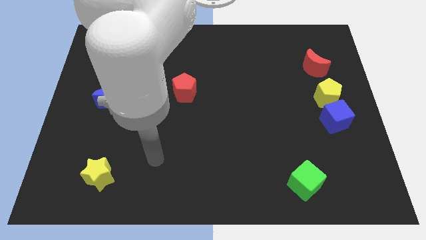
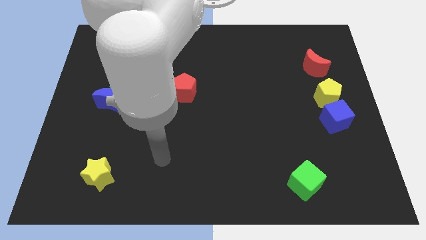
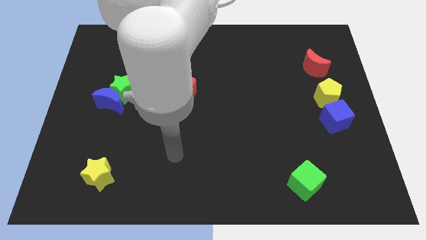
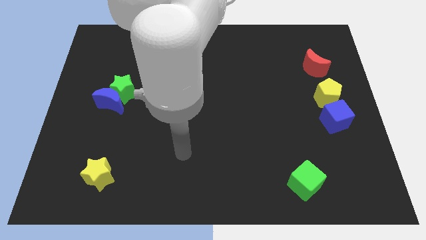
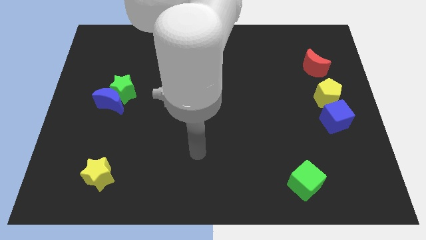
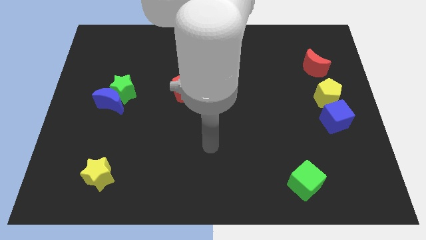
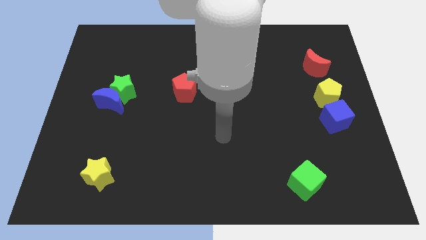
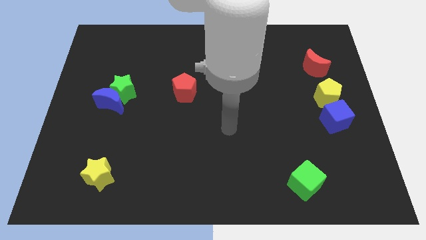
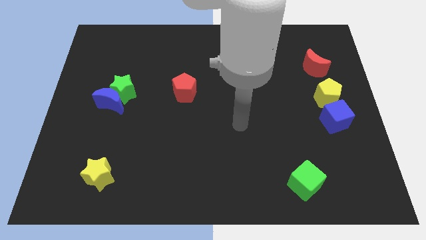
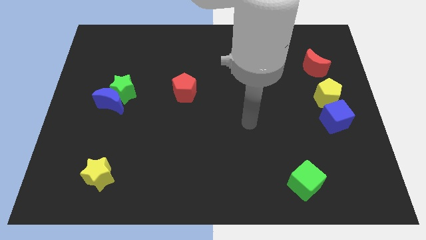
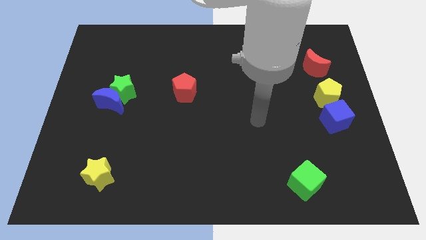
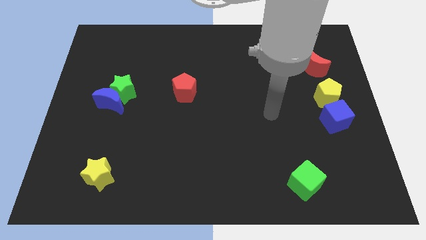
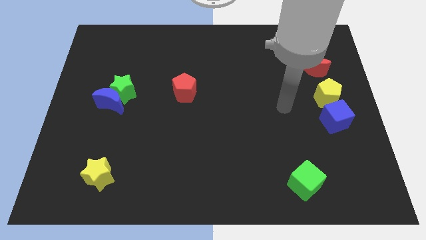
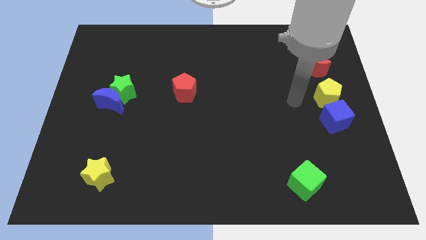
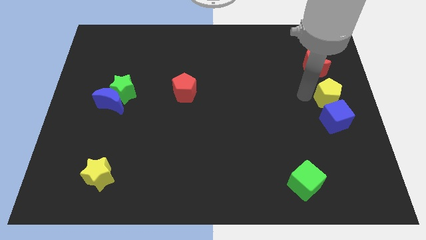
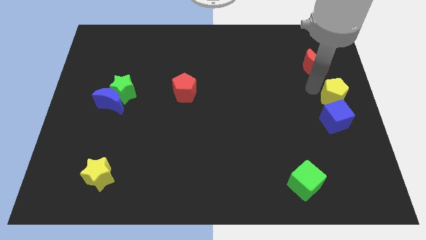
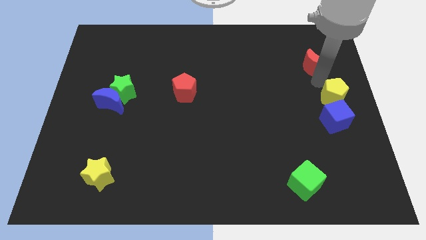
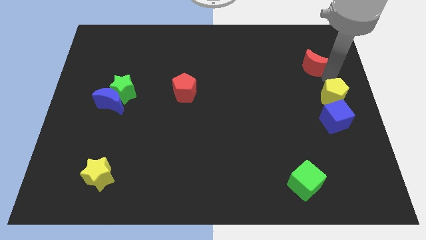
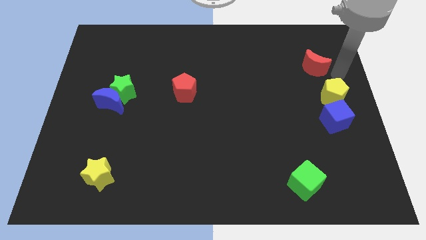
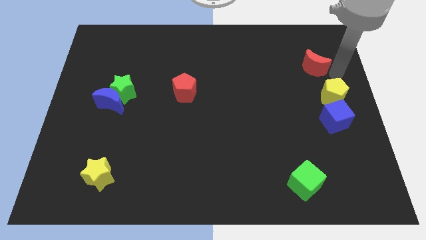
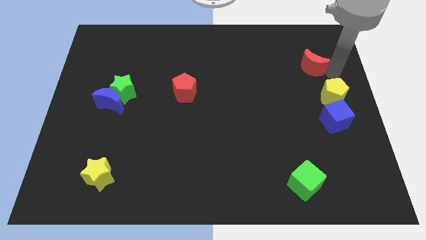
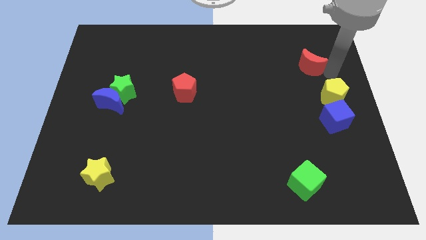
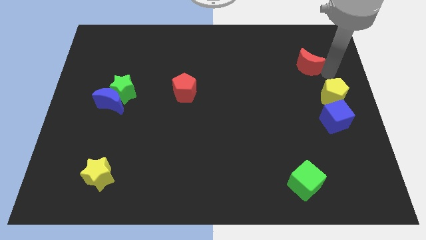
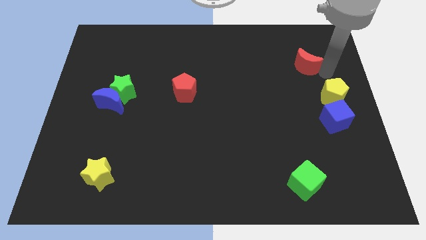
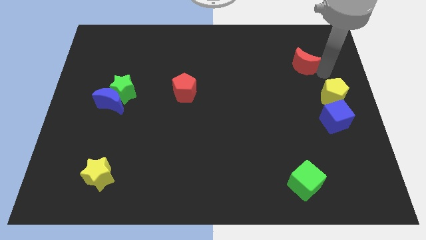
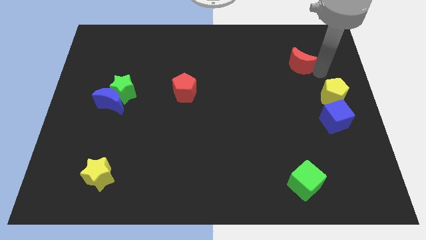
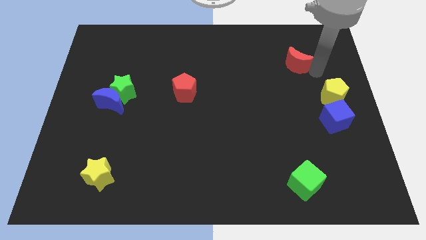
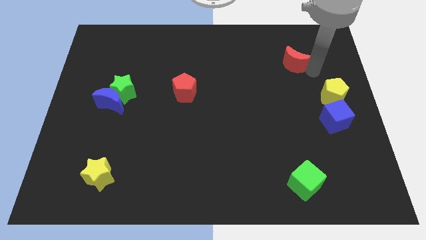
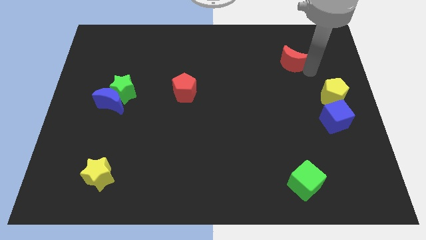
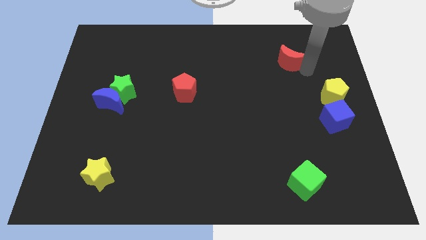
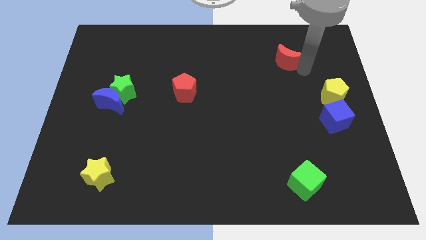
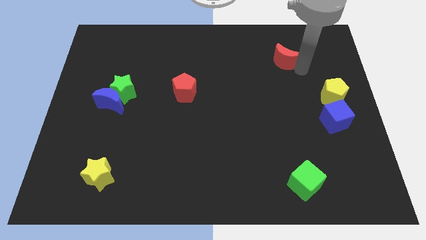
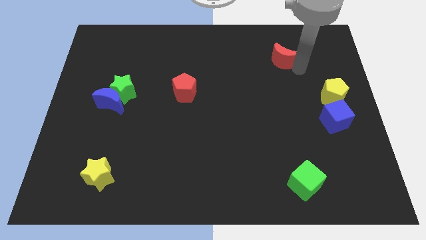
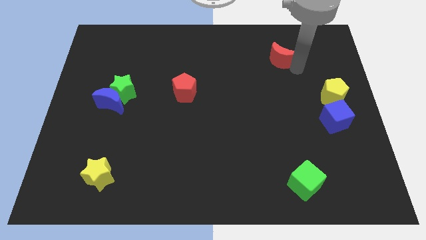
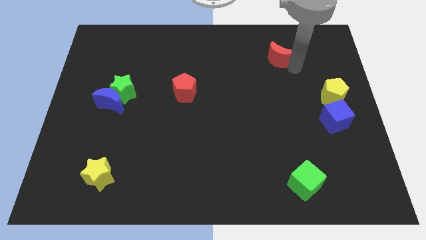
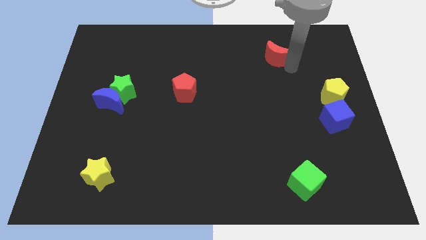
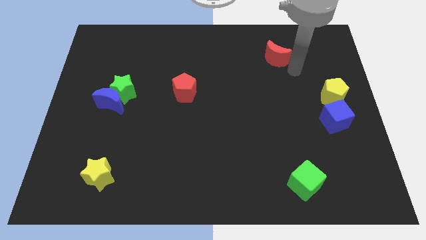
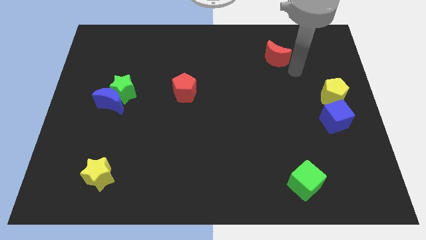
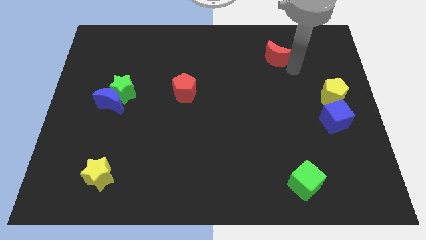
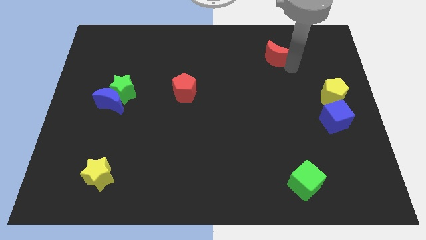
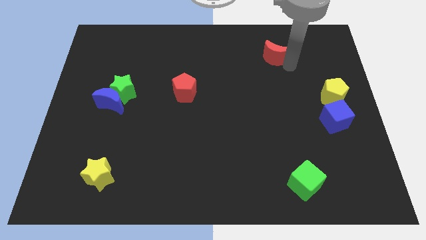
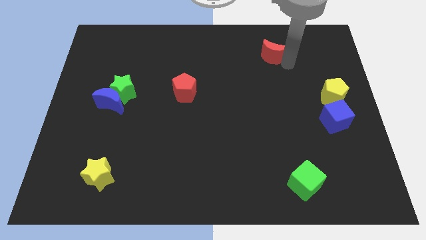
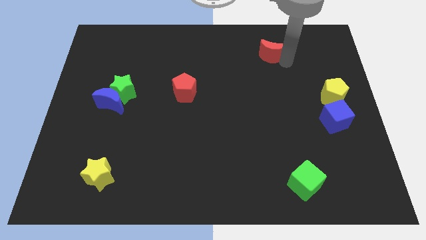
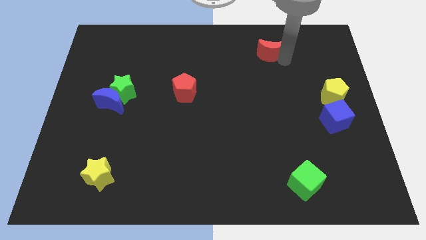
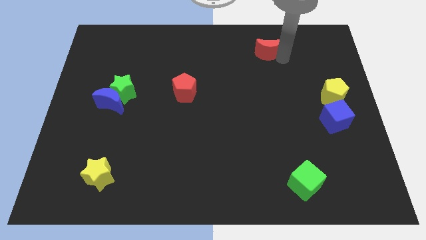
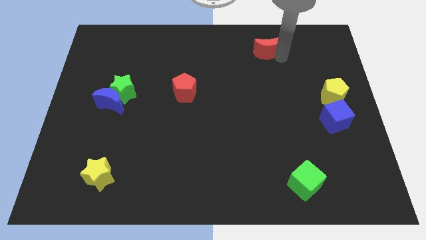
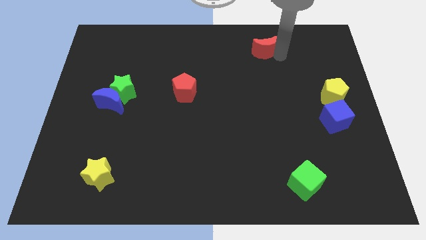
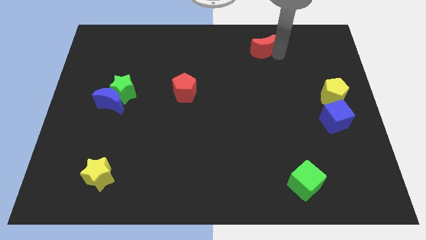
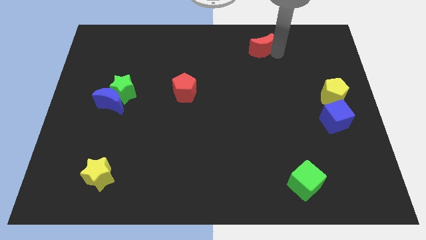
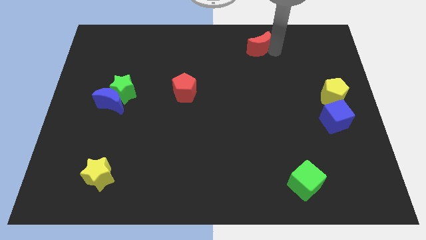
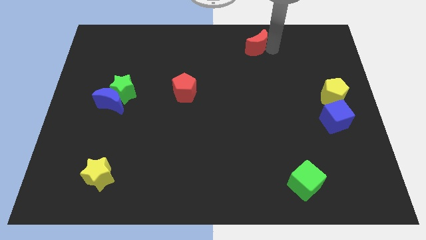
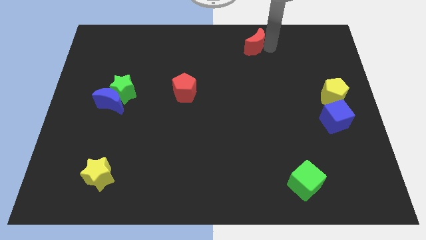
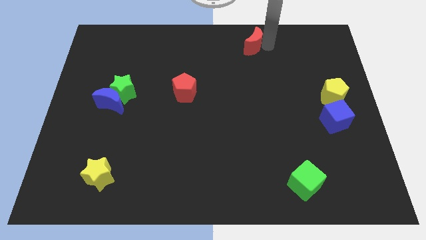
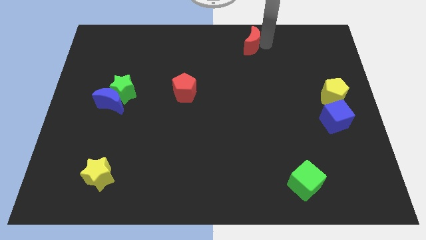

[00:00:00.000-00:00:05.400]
push the red moon to the top

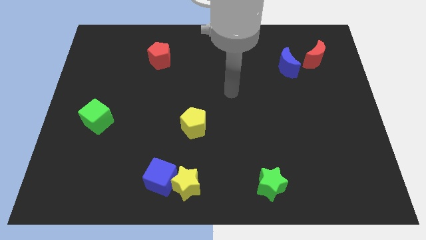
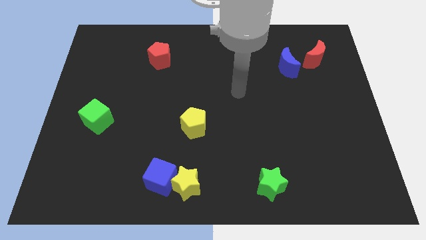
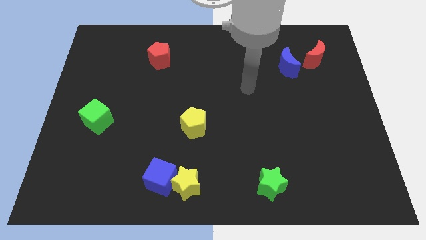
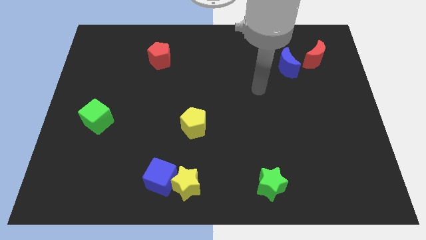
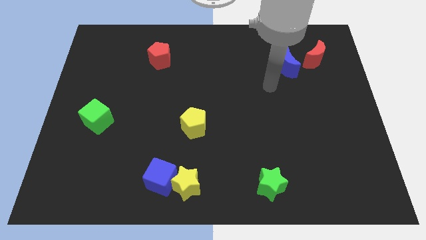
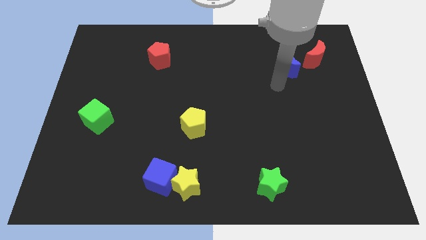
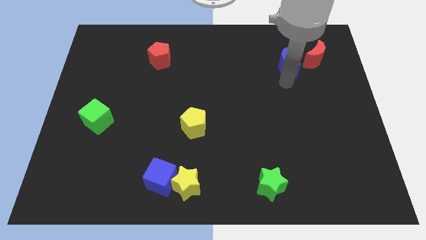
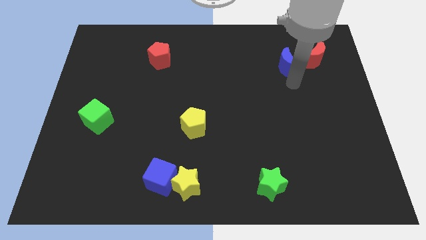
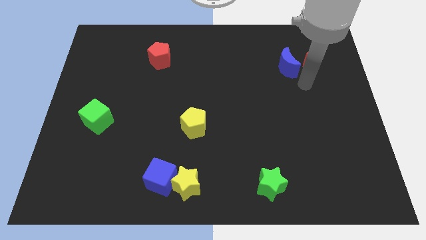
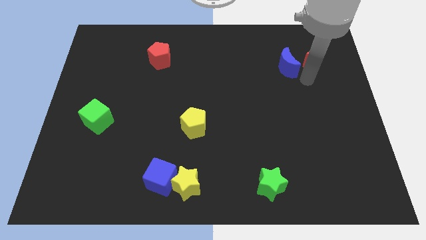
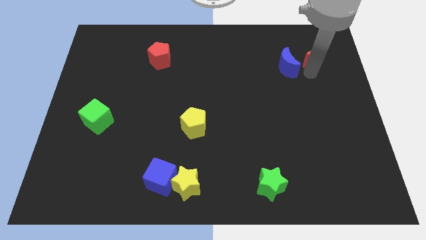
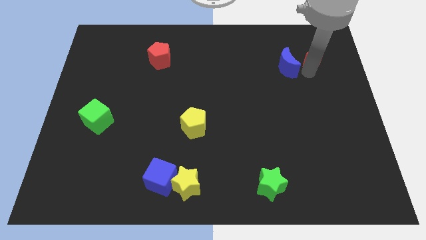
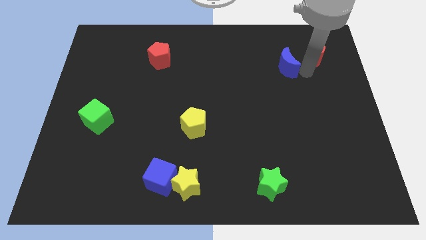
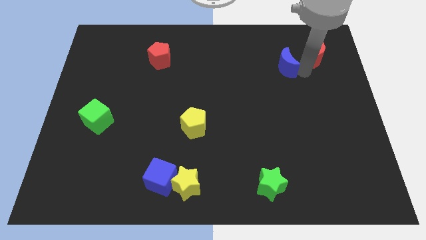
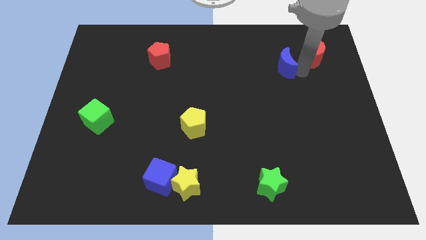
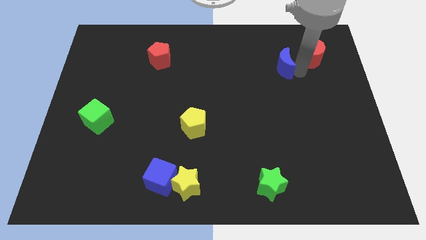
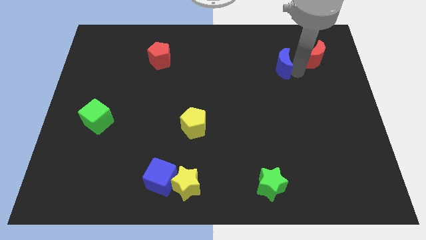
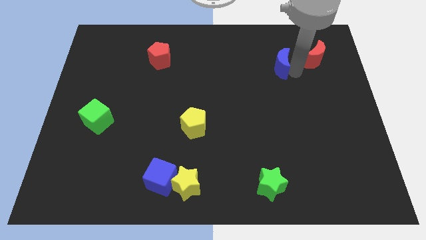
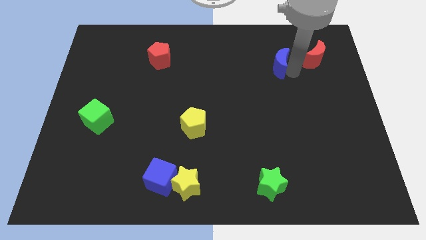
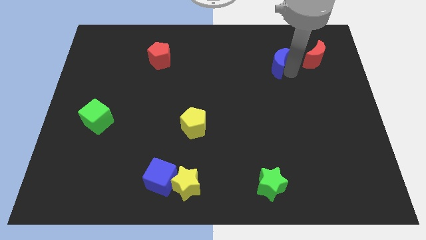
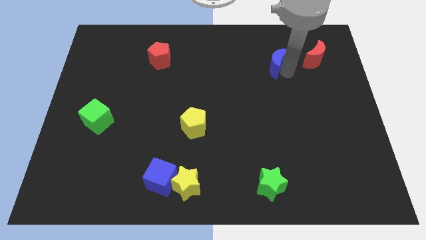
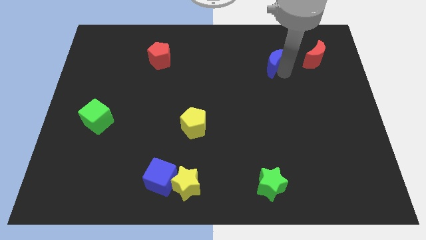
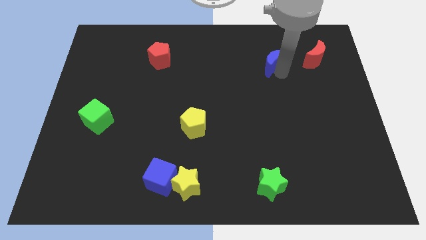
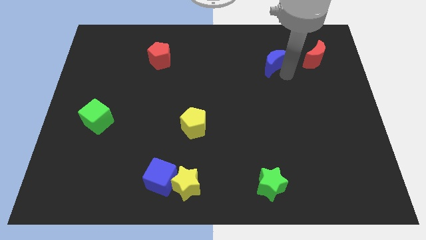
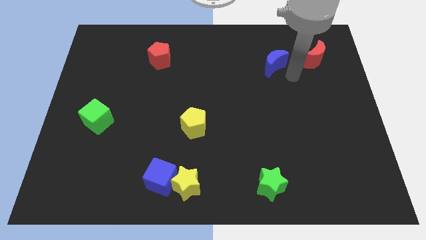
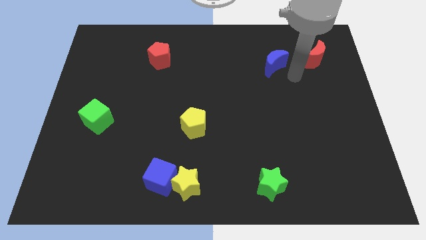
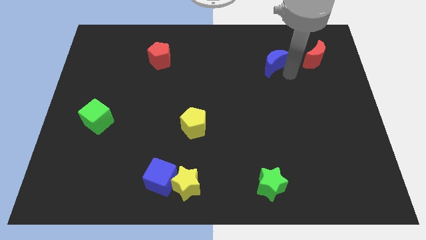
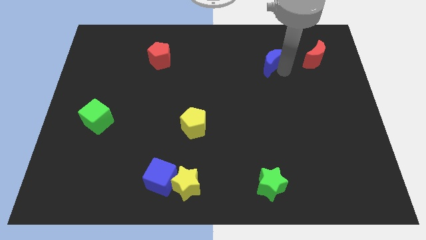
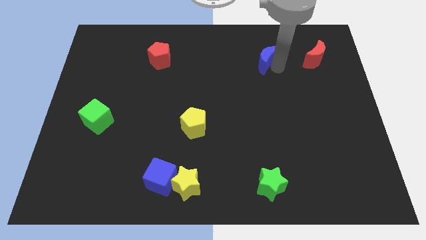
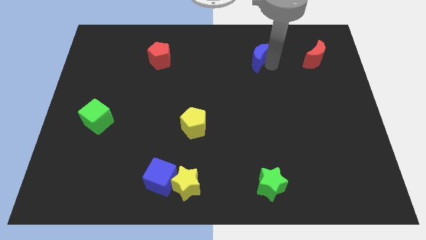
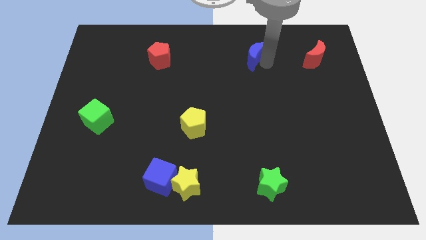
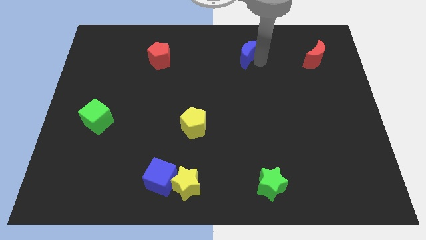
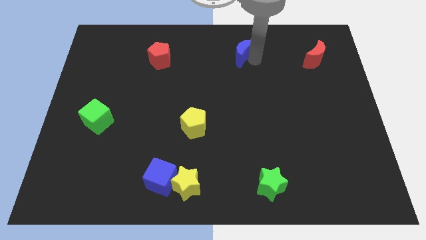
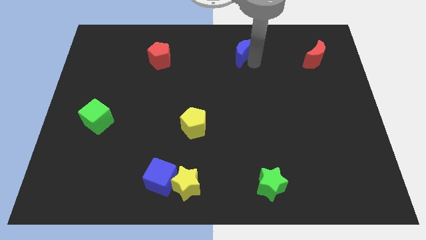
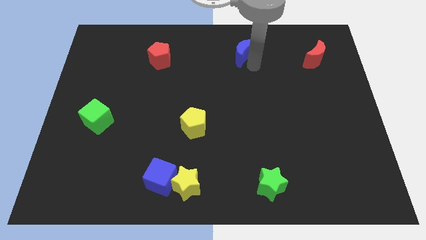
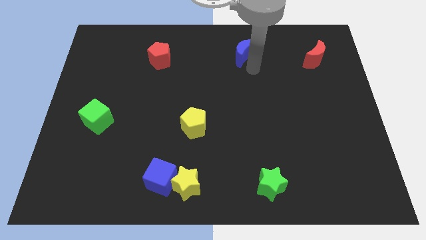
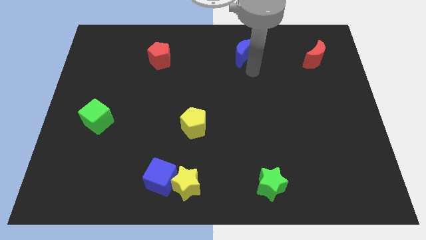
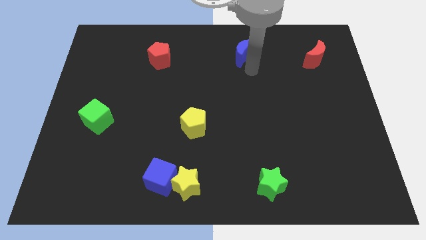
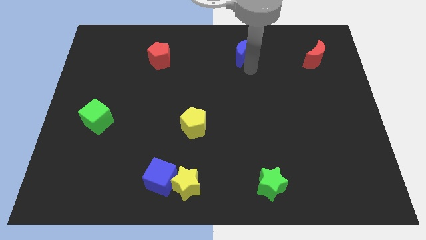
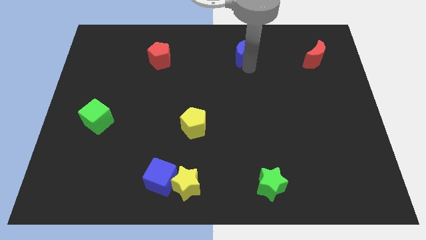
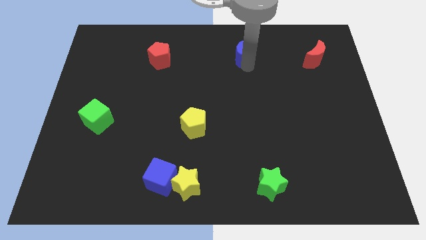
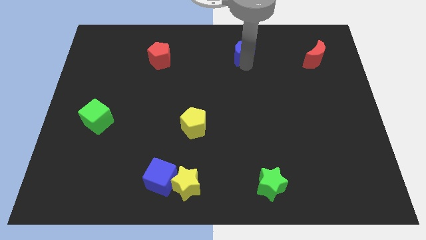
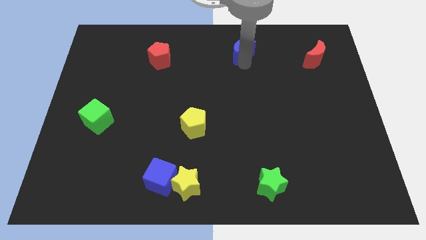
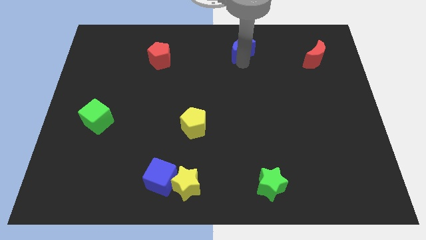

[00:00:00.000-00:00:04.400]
push the blue moon to the towards your base
